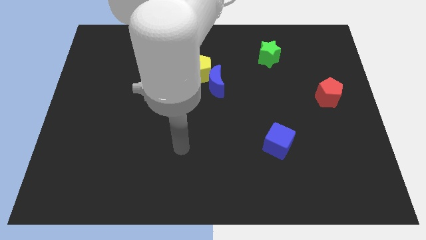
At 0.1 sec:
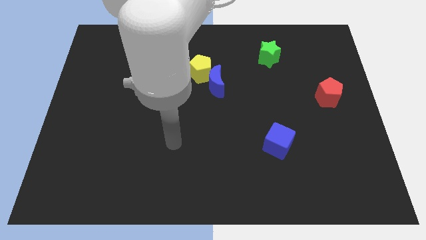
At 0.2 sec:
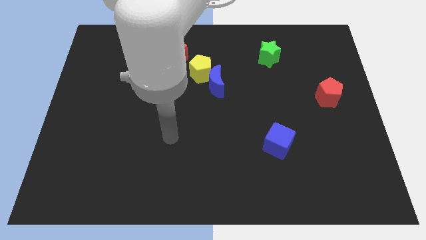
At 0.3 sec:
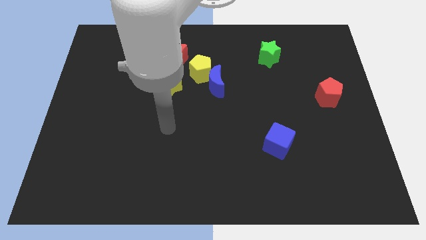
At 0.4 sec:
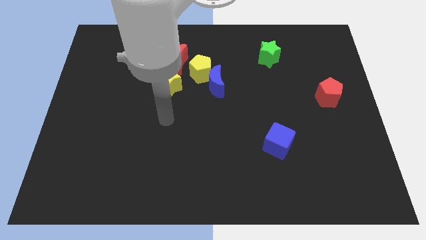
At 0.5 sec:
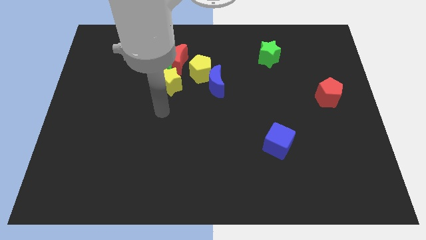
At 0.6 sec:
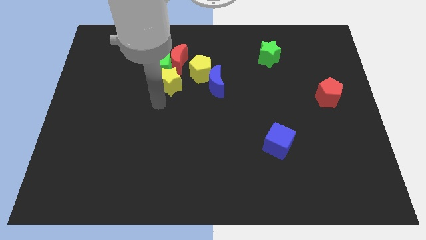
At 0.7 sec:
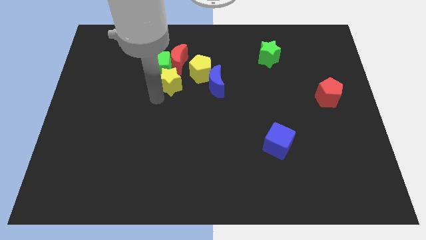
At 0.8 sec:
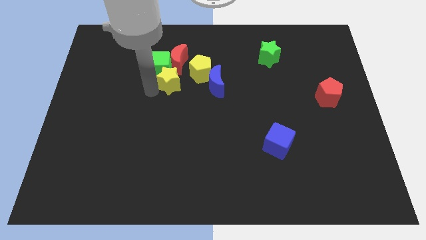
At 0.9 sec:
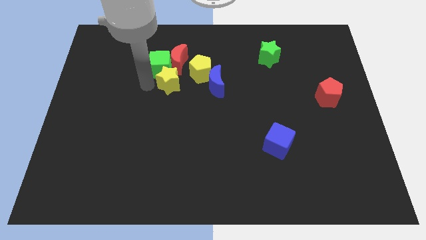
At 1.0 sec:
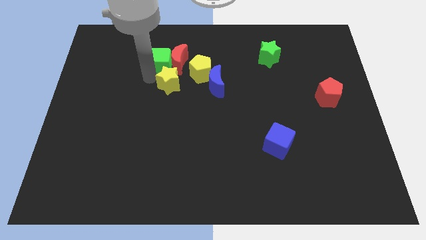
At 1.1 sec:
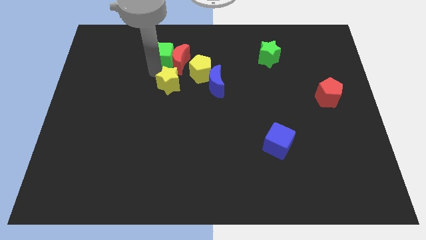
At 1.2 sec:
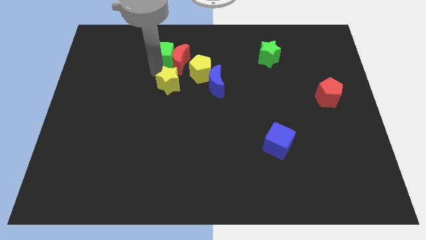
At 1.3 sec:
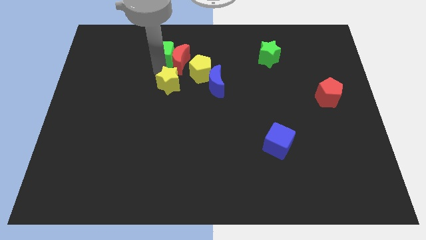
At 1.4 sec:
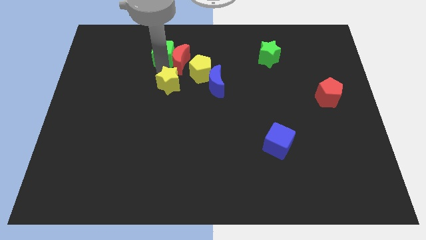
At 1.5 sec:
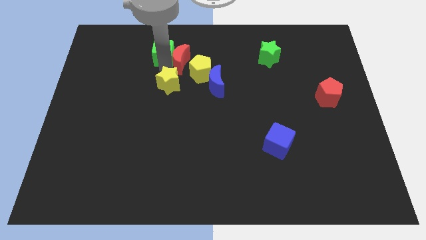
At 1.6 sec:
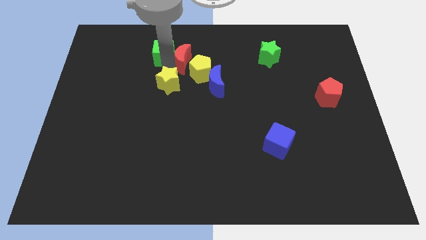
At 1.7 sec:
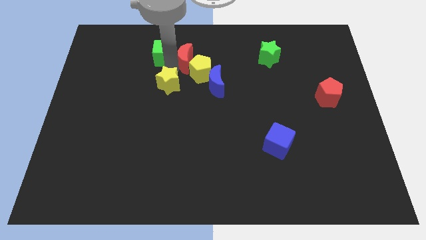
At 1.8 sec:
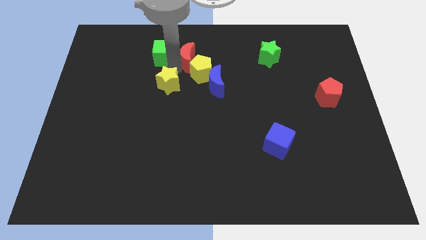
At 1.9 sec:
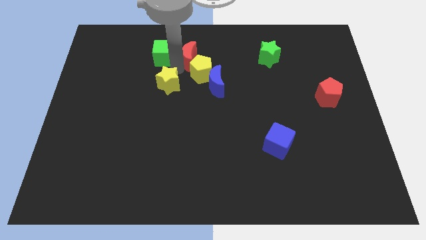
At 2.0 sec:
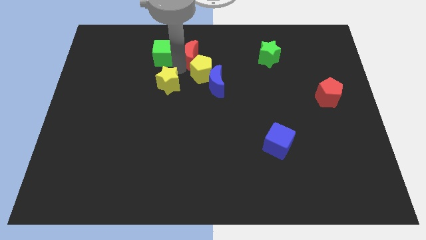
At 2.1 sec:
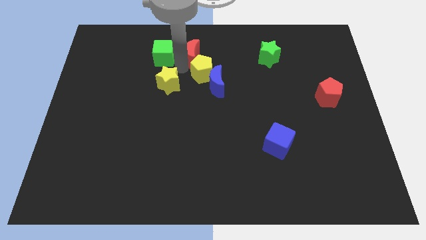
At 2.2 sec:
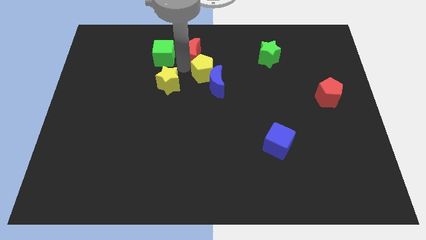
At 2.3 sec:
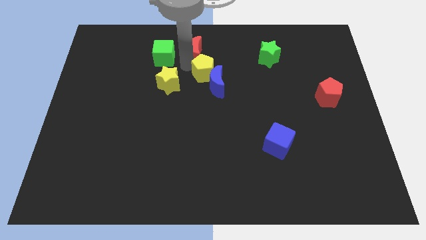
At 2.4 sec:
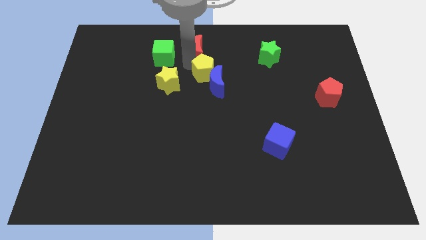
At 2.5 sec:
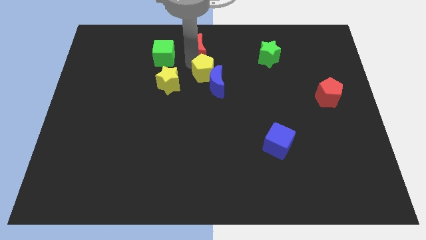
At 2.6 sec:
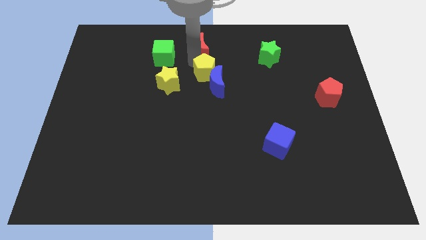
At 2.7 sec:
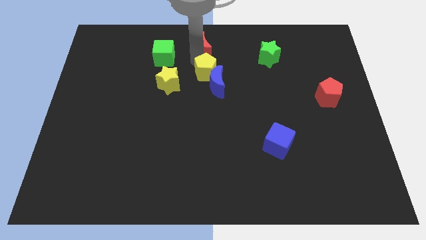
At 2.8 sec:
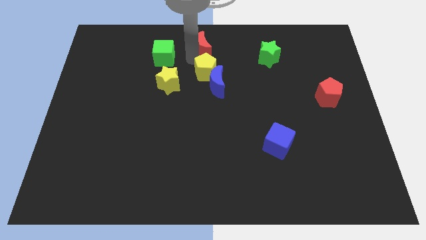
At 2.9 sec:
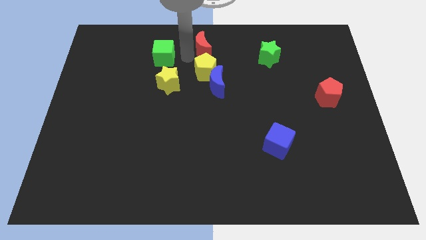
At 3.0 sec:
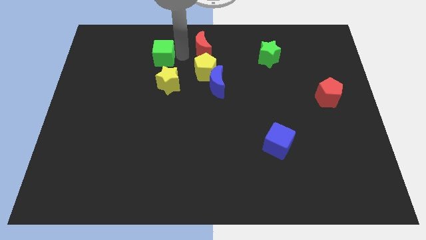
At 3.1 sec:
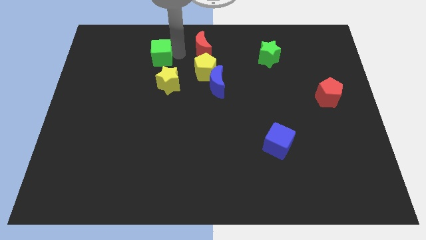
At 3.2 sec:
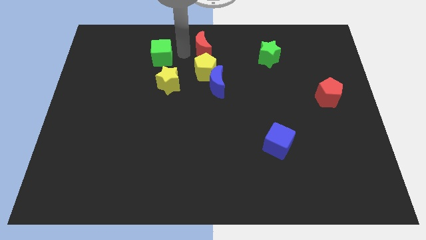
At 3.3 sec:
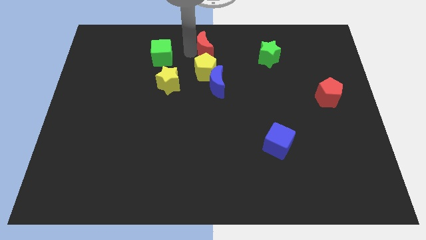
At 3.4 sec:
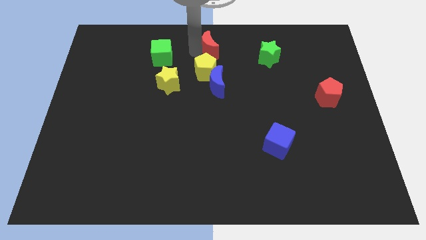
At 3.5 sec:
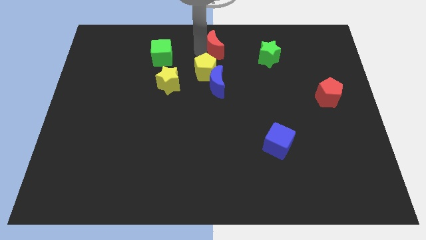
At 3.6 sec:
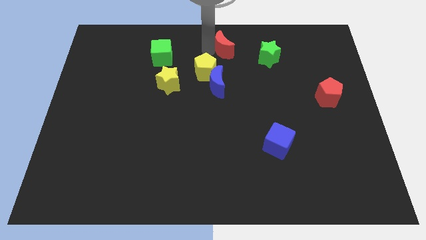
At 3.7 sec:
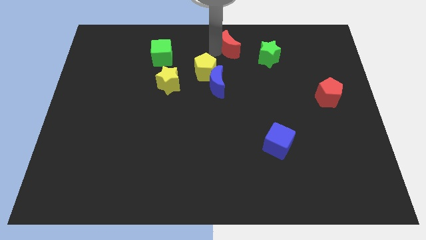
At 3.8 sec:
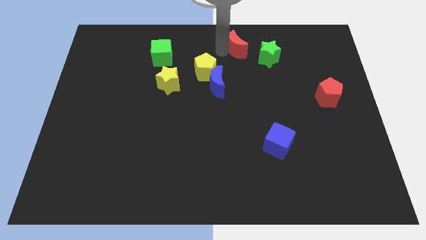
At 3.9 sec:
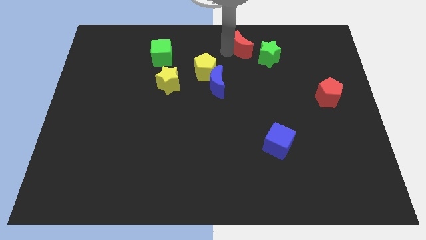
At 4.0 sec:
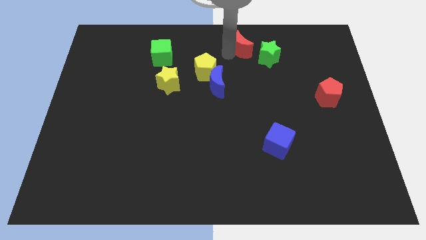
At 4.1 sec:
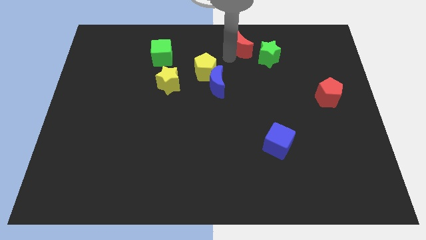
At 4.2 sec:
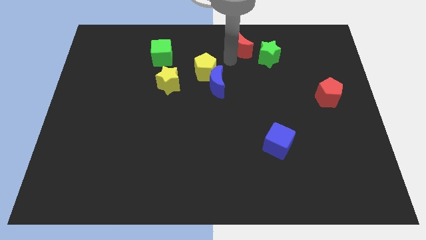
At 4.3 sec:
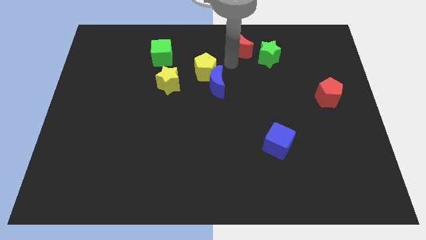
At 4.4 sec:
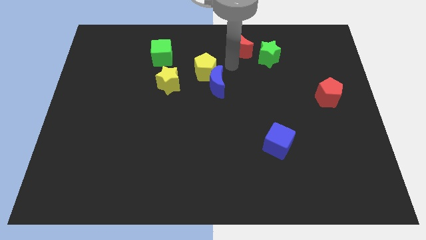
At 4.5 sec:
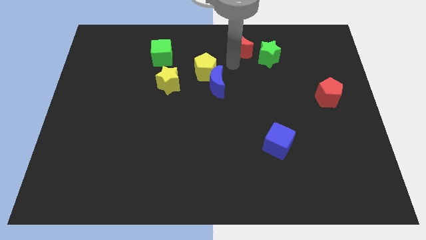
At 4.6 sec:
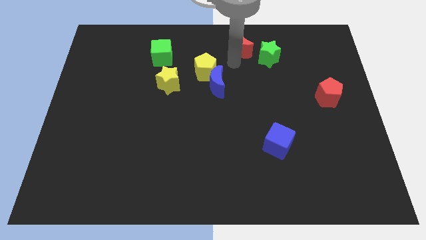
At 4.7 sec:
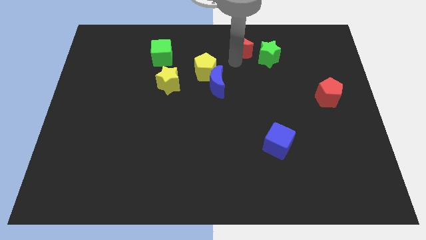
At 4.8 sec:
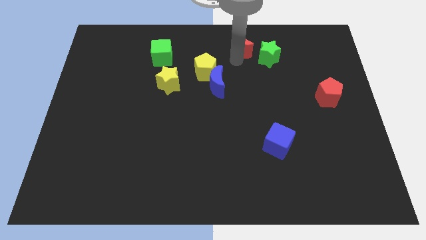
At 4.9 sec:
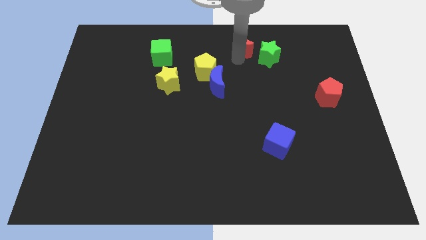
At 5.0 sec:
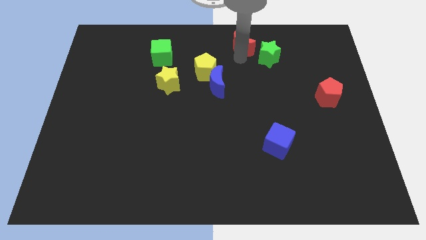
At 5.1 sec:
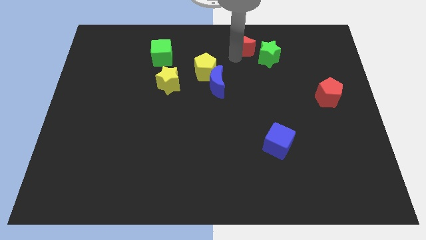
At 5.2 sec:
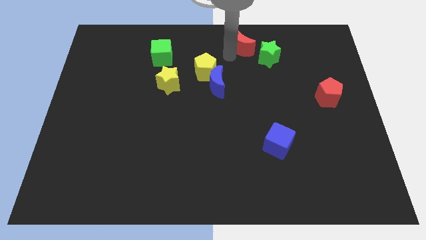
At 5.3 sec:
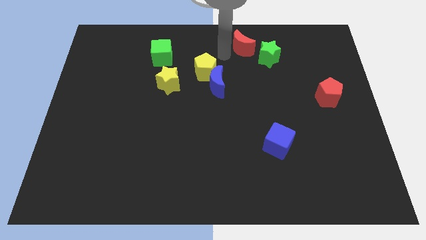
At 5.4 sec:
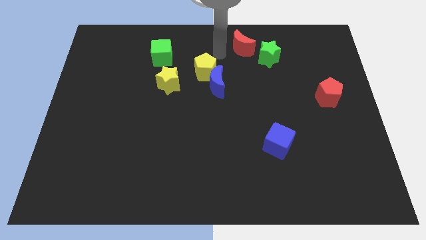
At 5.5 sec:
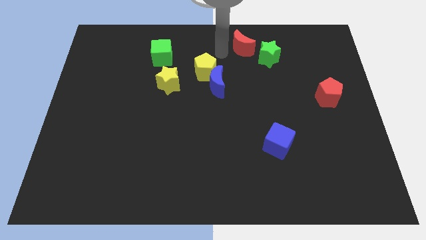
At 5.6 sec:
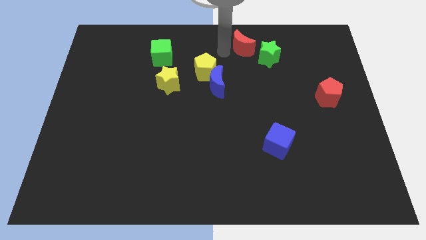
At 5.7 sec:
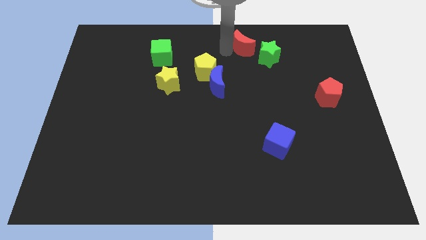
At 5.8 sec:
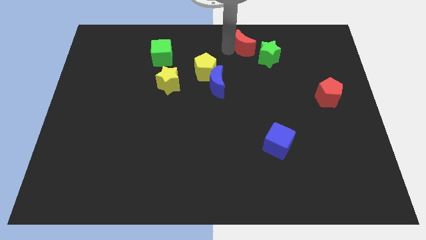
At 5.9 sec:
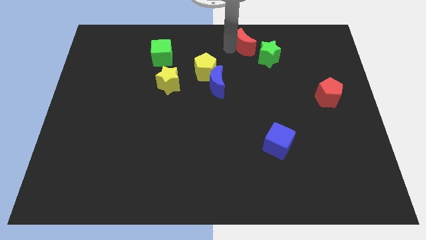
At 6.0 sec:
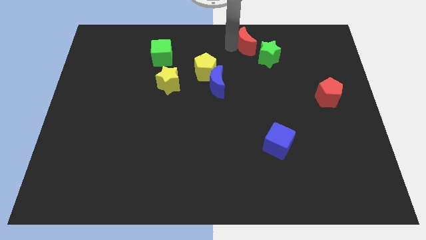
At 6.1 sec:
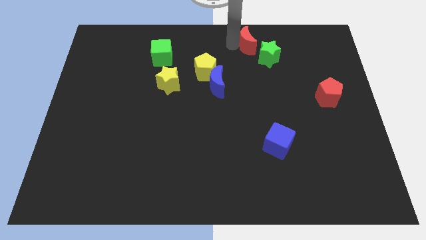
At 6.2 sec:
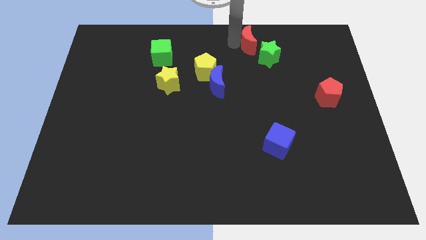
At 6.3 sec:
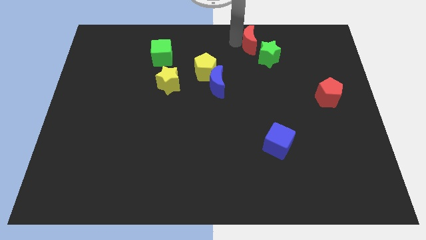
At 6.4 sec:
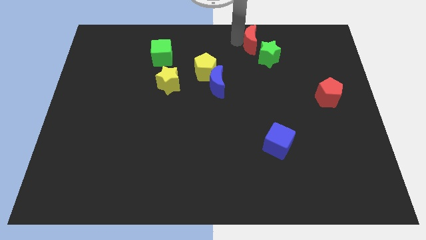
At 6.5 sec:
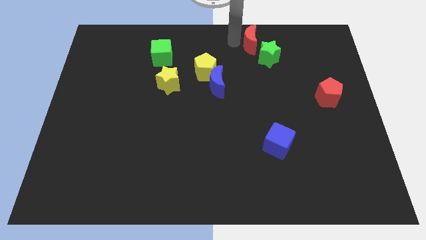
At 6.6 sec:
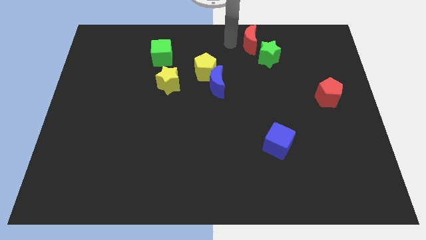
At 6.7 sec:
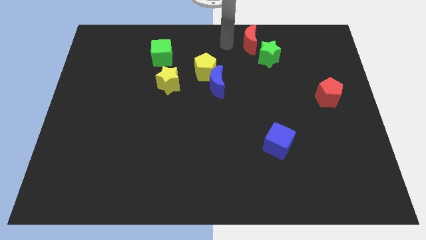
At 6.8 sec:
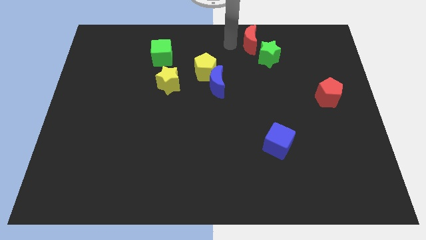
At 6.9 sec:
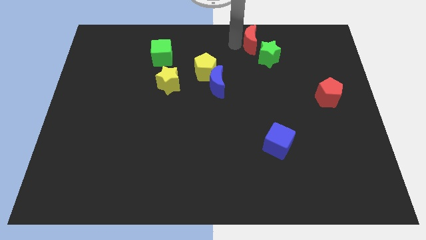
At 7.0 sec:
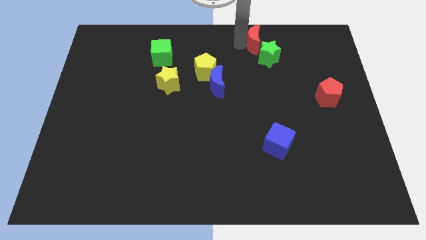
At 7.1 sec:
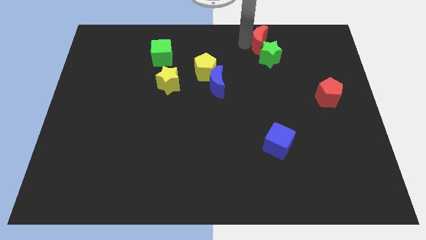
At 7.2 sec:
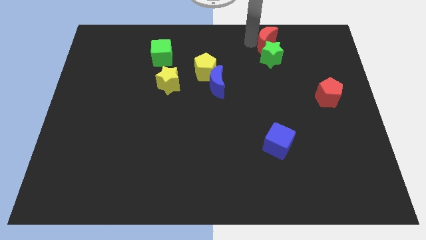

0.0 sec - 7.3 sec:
push the red moon right

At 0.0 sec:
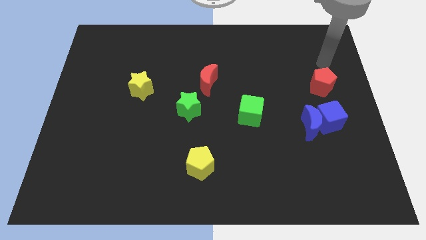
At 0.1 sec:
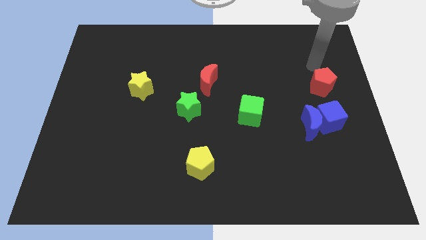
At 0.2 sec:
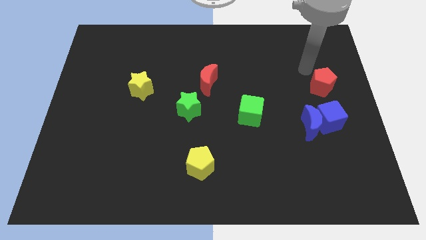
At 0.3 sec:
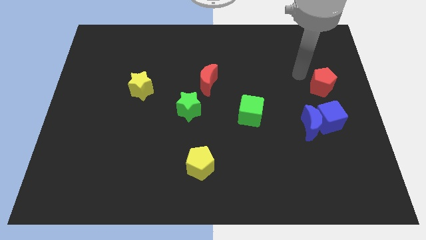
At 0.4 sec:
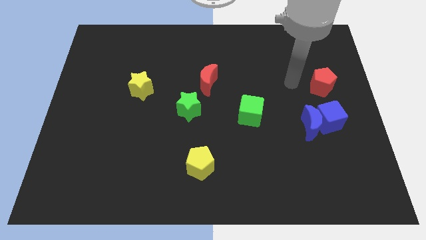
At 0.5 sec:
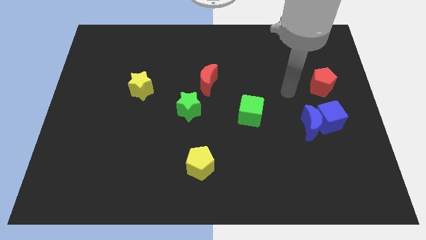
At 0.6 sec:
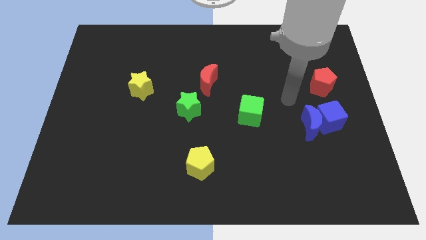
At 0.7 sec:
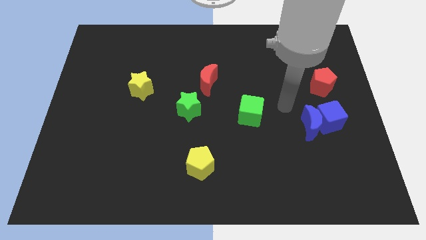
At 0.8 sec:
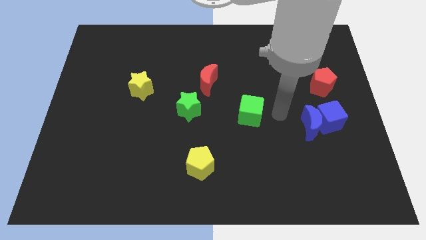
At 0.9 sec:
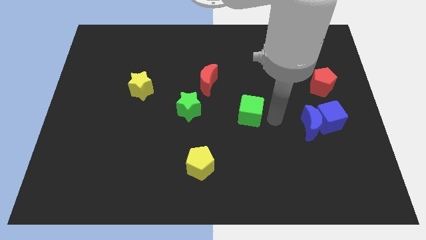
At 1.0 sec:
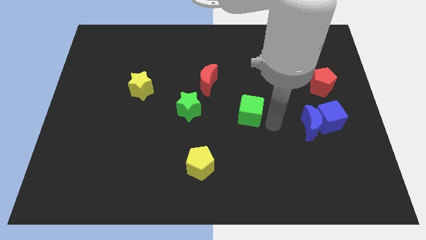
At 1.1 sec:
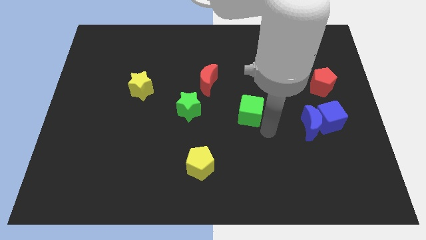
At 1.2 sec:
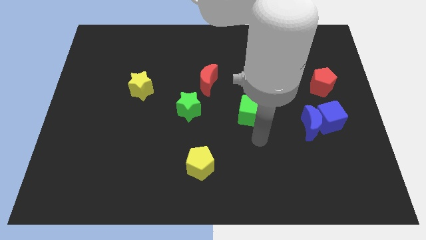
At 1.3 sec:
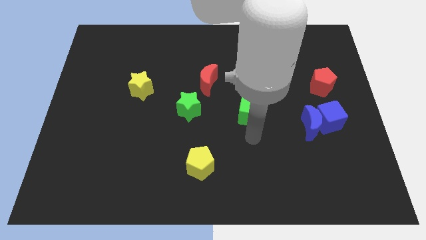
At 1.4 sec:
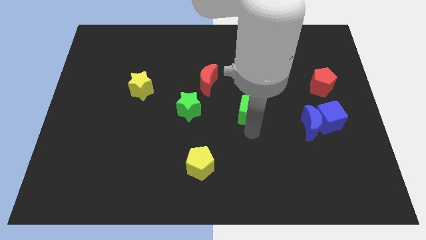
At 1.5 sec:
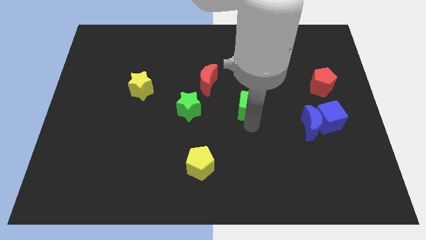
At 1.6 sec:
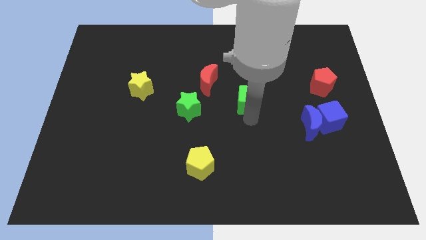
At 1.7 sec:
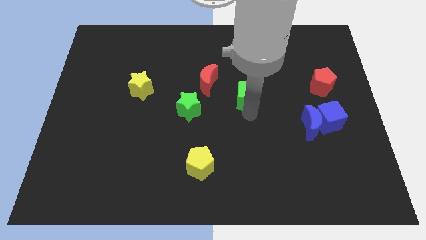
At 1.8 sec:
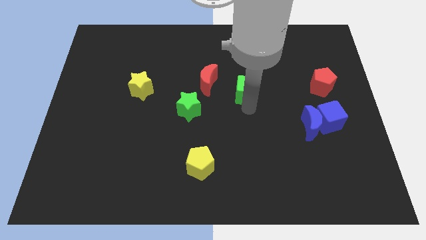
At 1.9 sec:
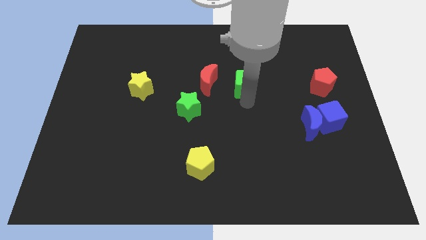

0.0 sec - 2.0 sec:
slightly move the green cube up
